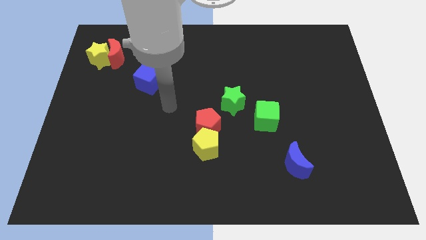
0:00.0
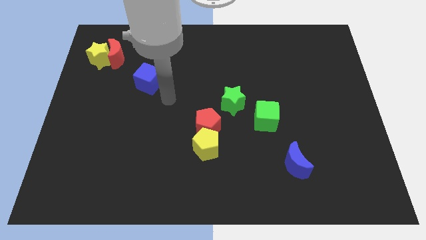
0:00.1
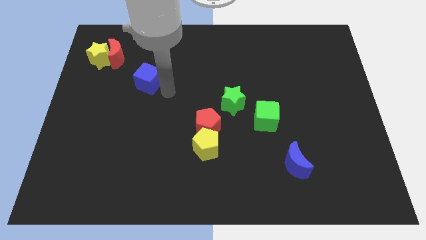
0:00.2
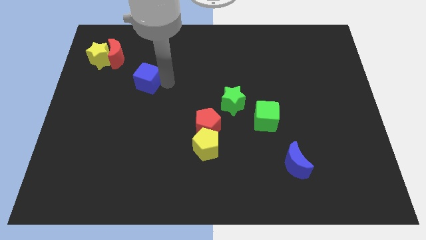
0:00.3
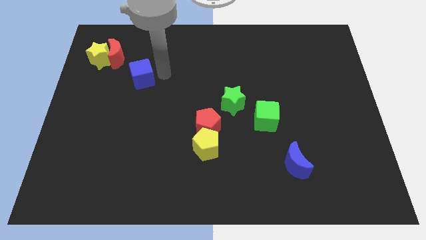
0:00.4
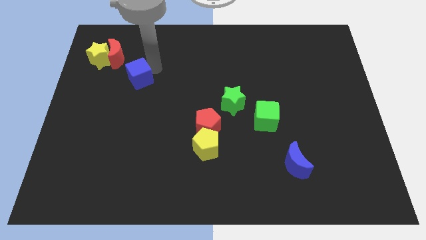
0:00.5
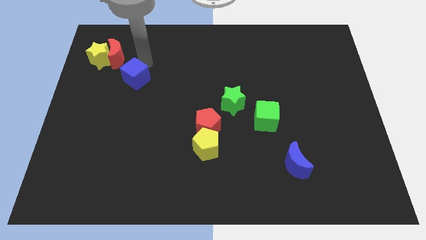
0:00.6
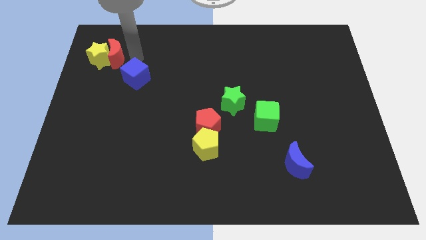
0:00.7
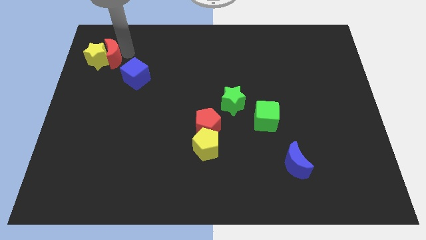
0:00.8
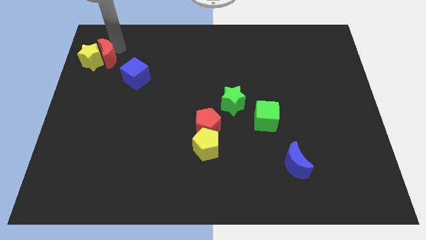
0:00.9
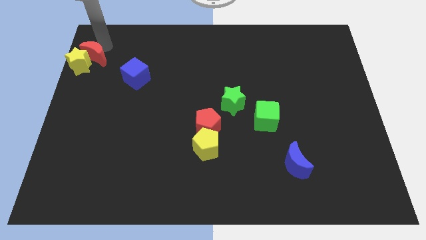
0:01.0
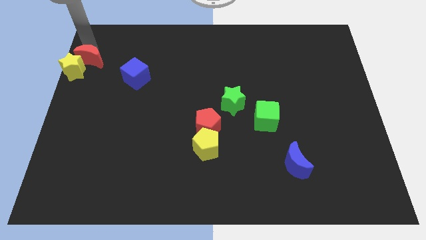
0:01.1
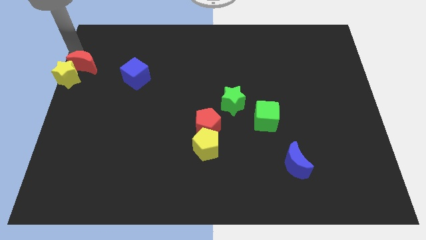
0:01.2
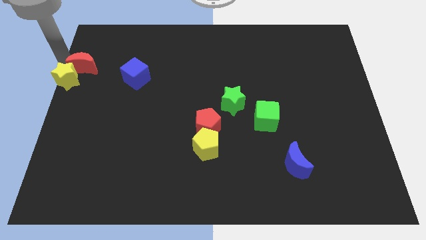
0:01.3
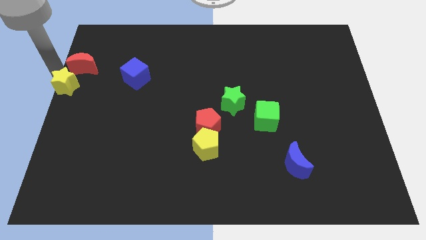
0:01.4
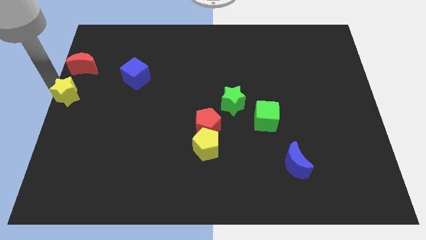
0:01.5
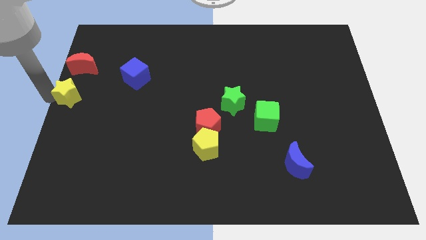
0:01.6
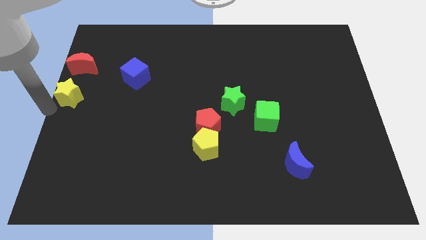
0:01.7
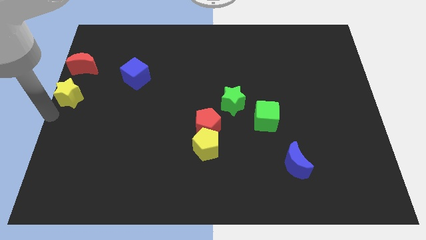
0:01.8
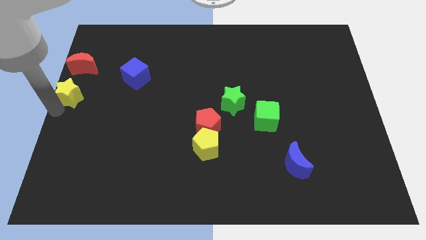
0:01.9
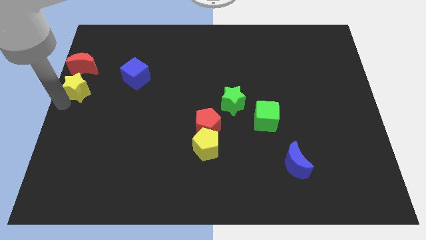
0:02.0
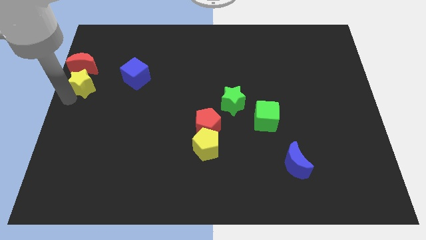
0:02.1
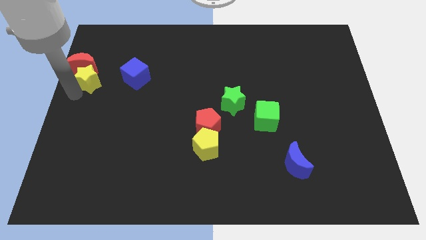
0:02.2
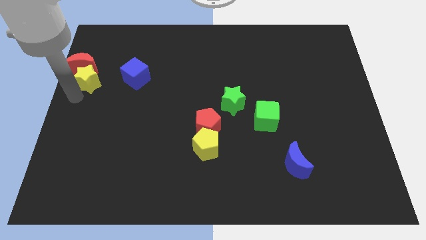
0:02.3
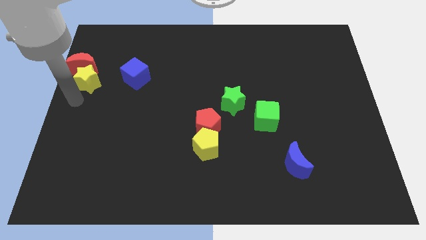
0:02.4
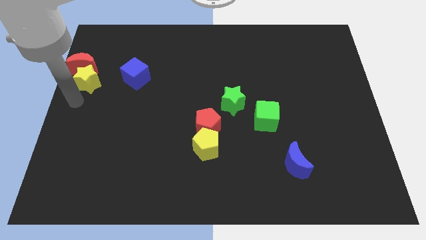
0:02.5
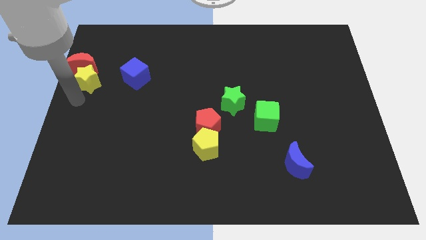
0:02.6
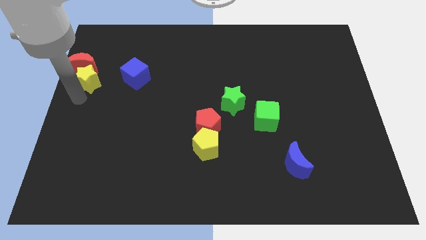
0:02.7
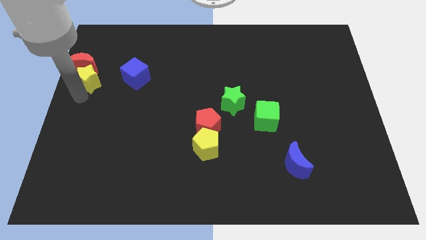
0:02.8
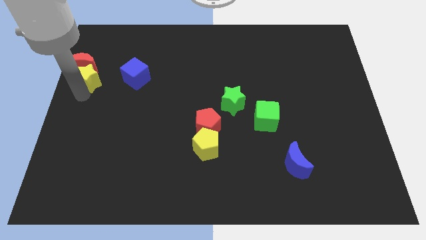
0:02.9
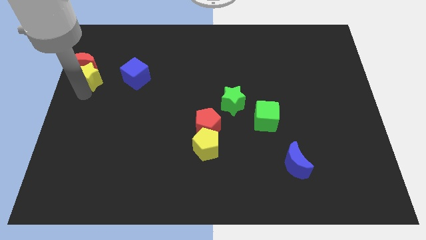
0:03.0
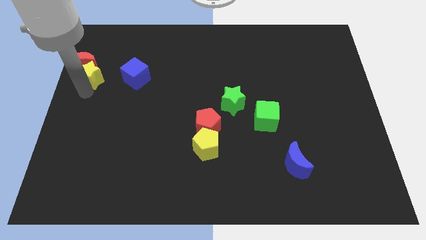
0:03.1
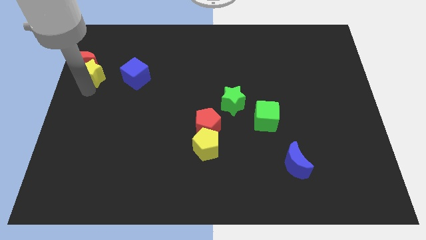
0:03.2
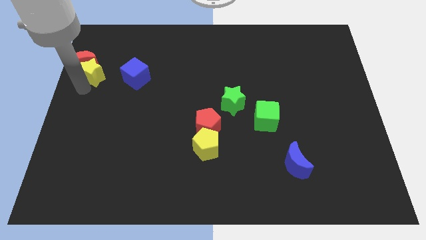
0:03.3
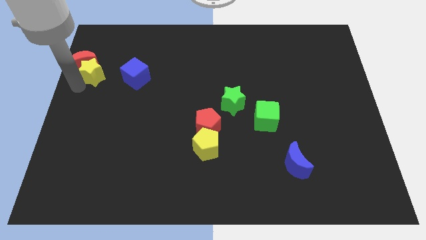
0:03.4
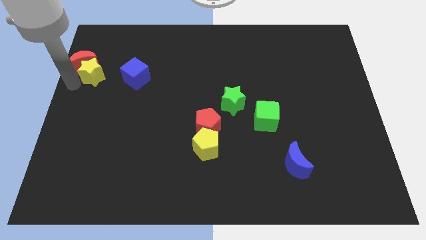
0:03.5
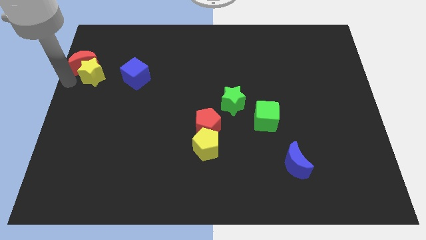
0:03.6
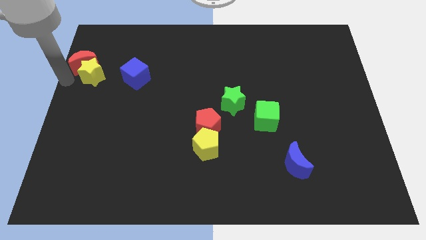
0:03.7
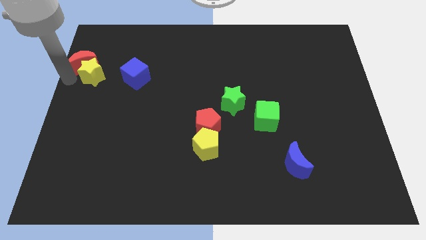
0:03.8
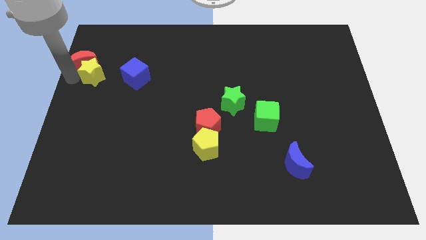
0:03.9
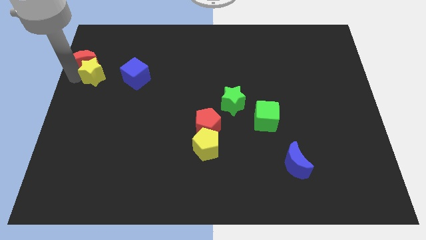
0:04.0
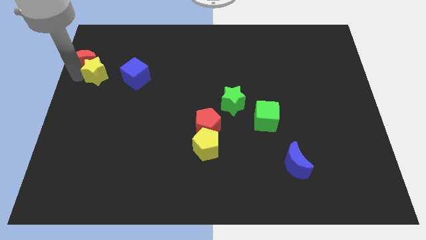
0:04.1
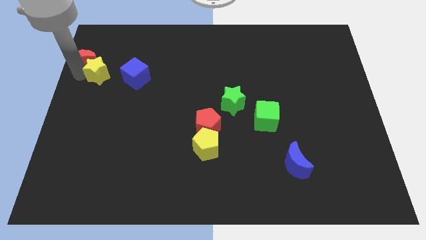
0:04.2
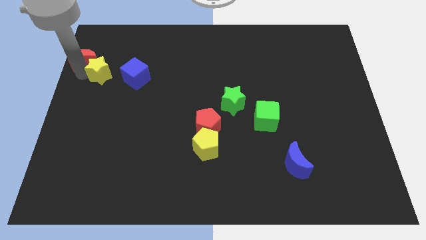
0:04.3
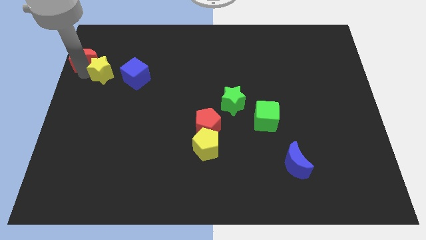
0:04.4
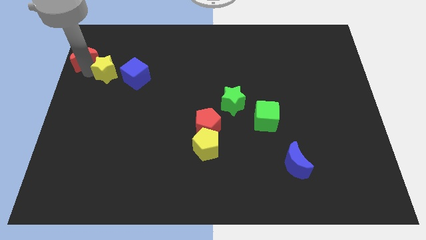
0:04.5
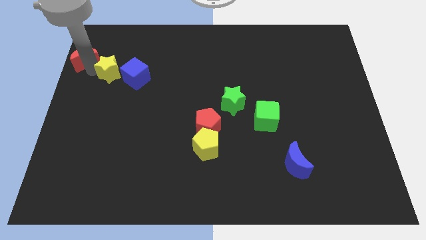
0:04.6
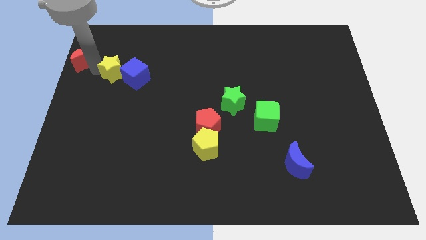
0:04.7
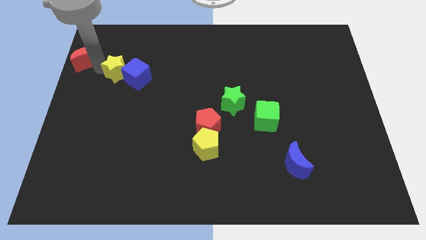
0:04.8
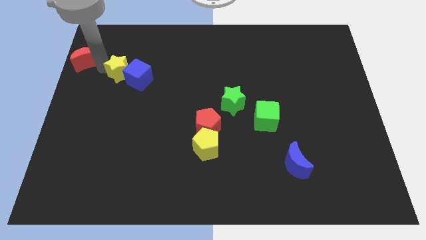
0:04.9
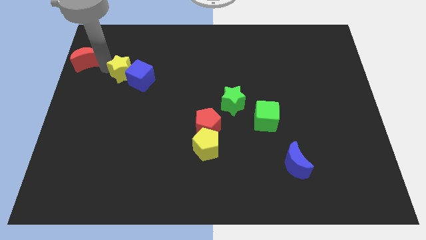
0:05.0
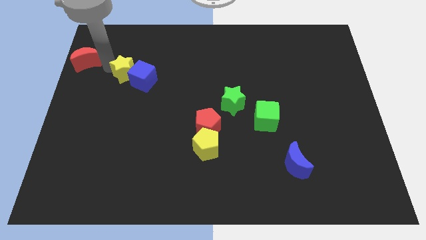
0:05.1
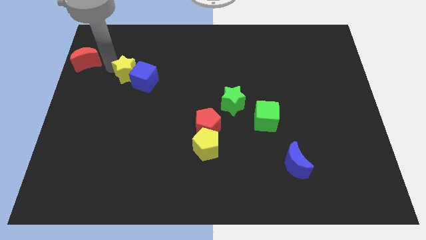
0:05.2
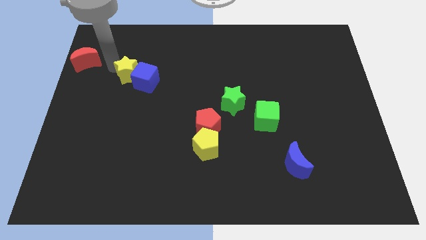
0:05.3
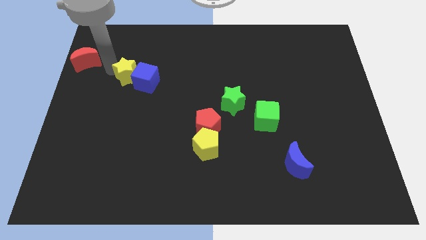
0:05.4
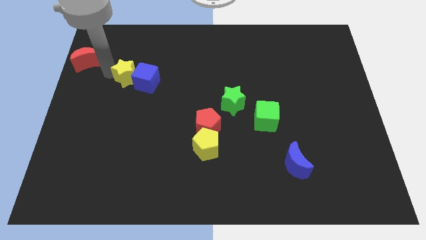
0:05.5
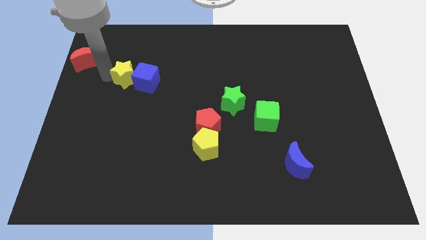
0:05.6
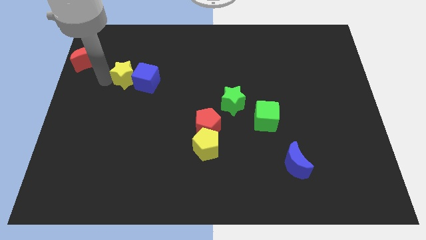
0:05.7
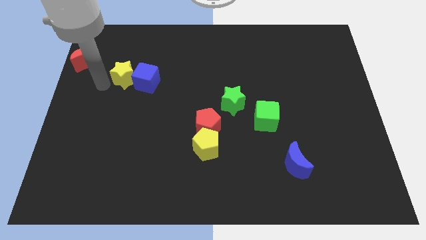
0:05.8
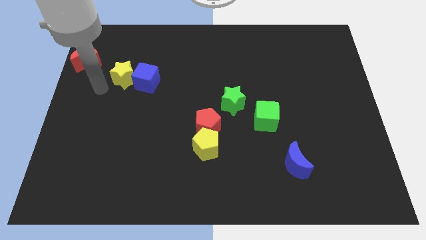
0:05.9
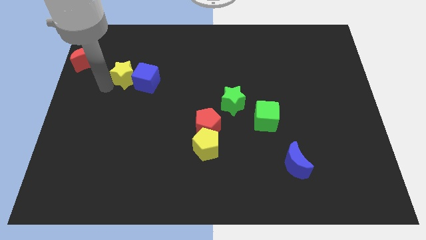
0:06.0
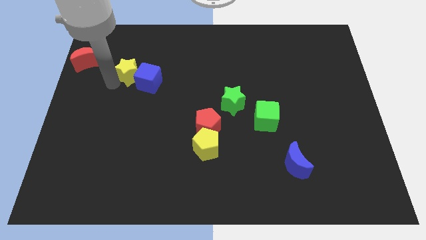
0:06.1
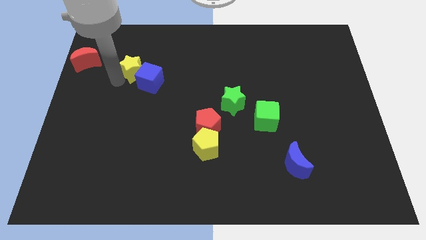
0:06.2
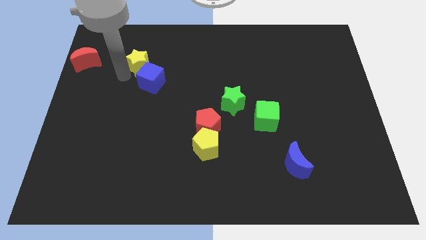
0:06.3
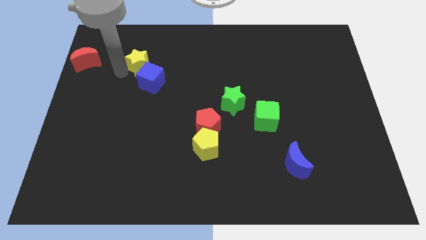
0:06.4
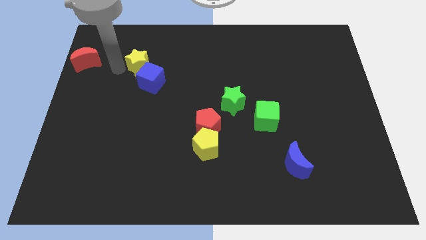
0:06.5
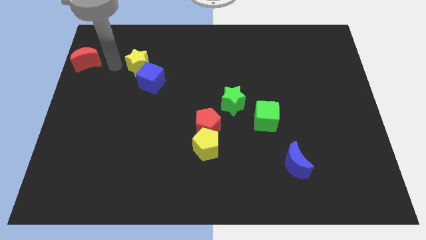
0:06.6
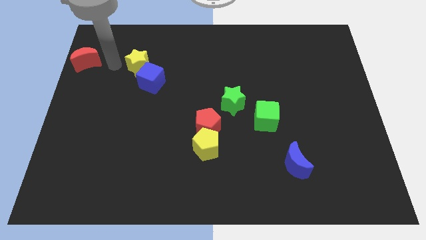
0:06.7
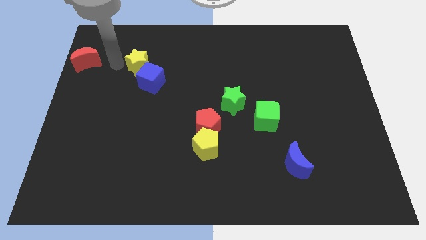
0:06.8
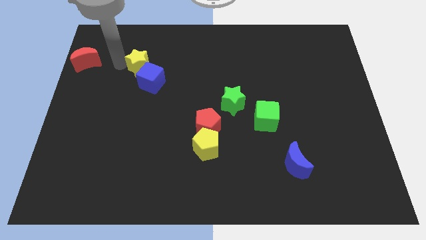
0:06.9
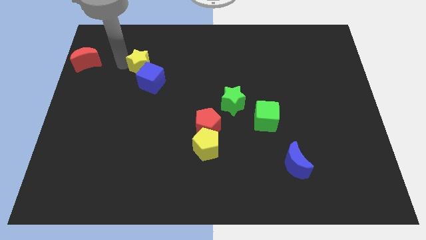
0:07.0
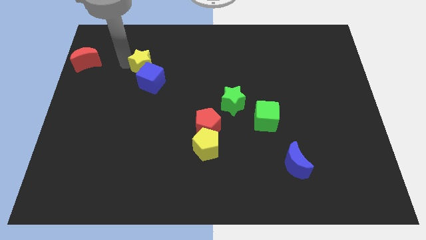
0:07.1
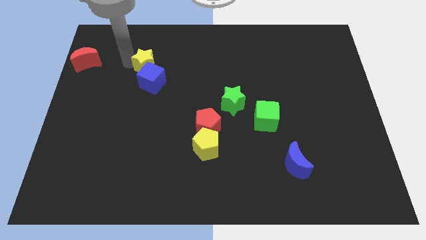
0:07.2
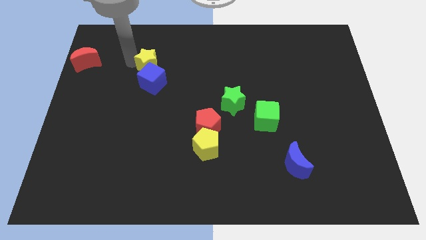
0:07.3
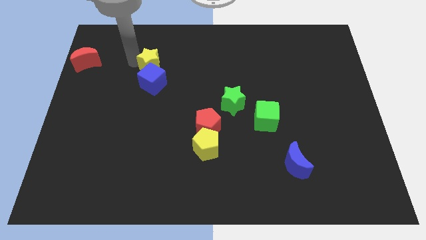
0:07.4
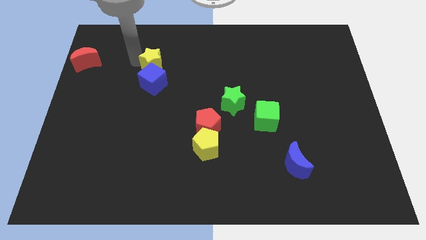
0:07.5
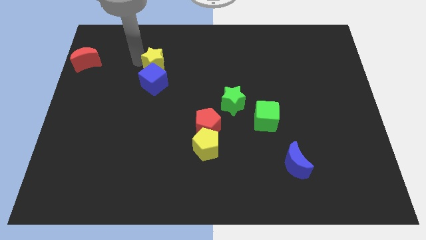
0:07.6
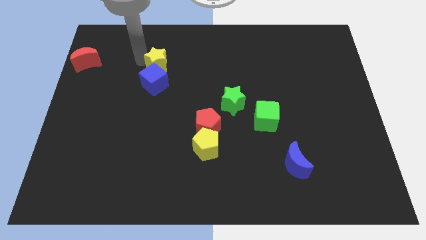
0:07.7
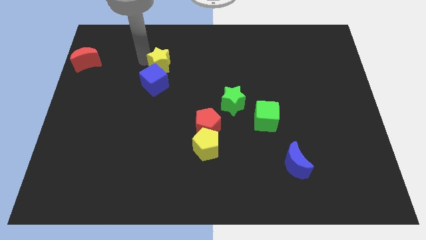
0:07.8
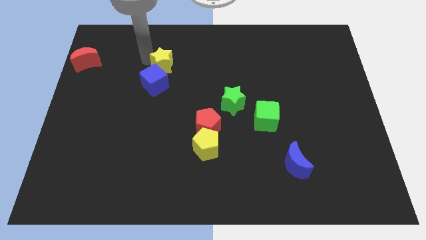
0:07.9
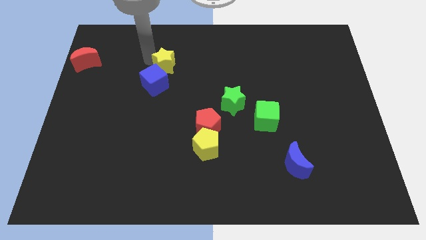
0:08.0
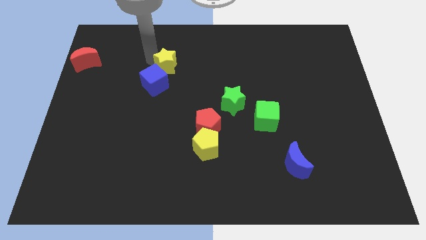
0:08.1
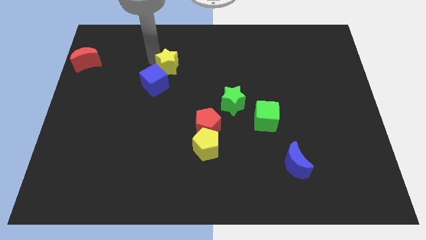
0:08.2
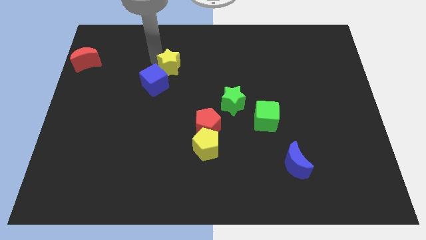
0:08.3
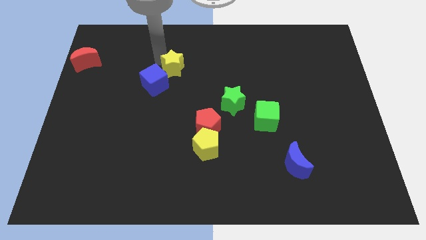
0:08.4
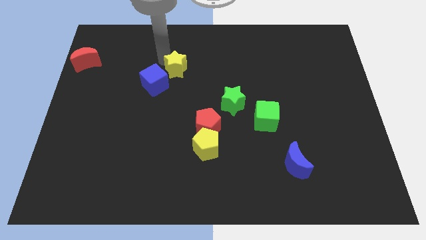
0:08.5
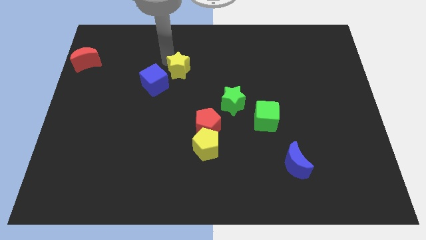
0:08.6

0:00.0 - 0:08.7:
slide the yellow star right
